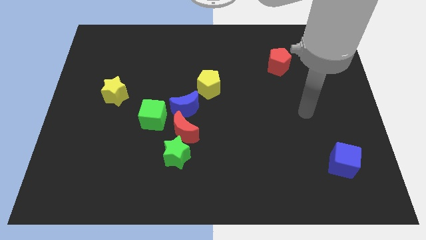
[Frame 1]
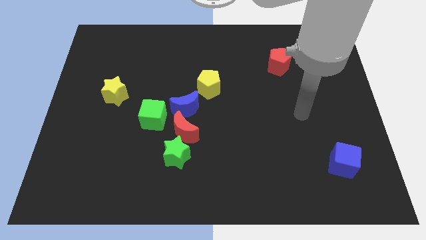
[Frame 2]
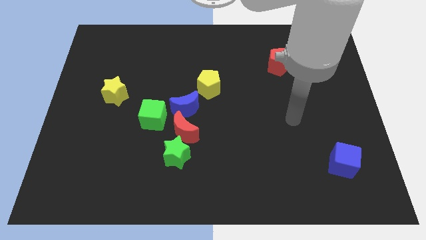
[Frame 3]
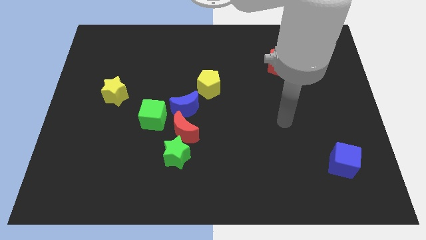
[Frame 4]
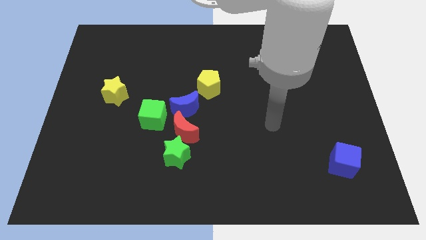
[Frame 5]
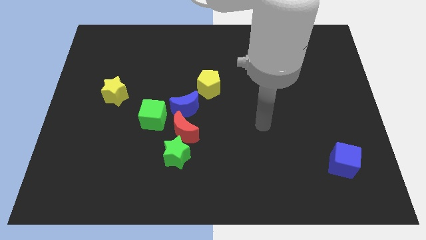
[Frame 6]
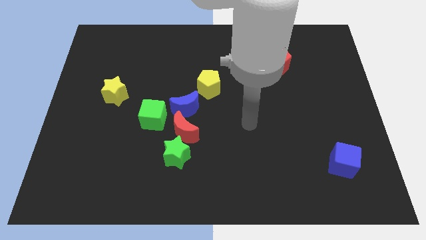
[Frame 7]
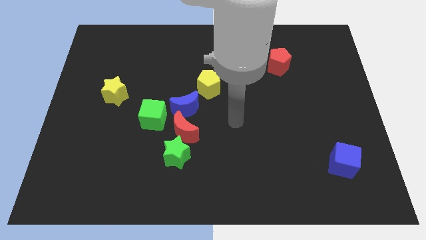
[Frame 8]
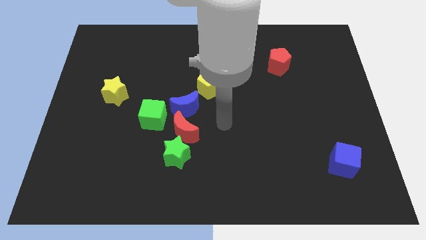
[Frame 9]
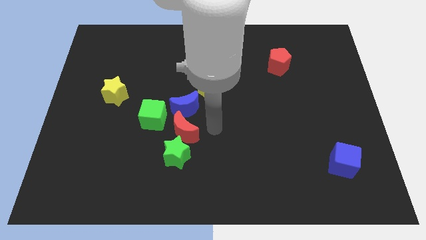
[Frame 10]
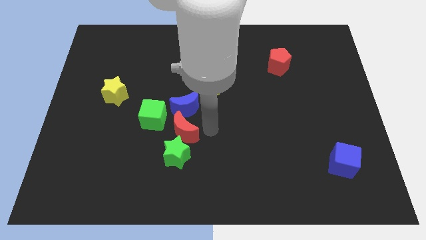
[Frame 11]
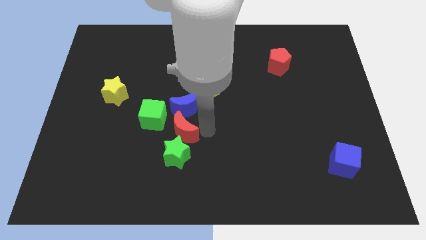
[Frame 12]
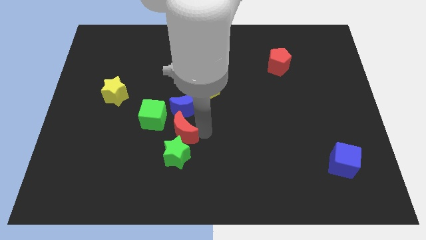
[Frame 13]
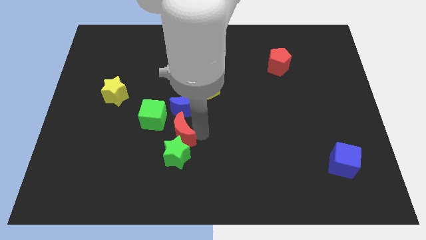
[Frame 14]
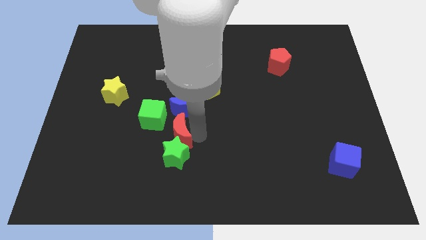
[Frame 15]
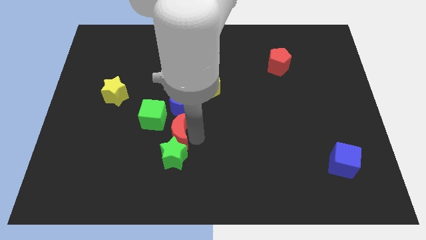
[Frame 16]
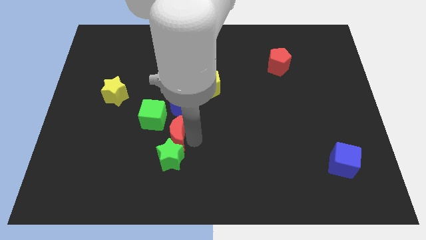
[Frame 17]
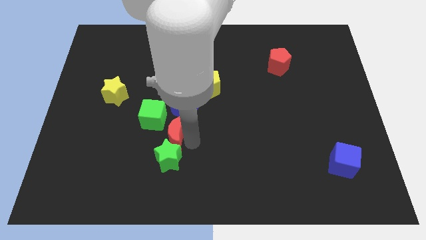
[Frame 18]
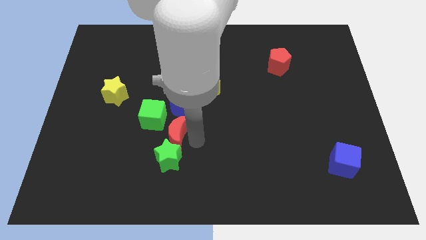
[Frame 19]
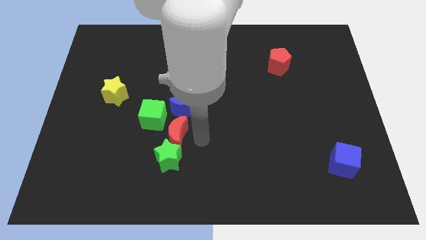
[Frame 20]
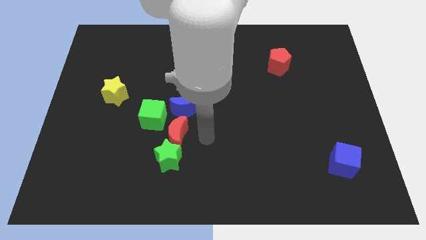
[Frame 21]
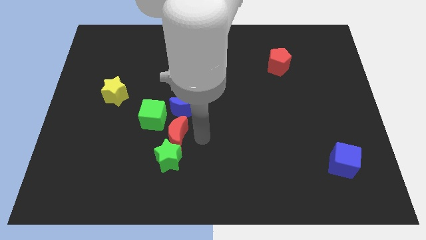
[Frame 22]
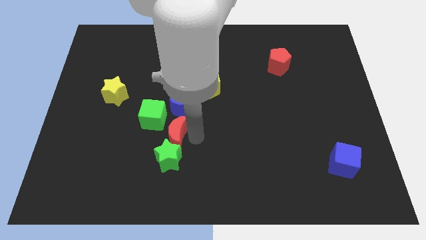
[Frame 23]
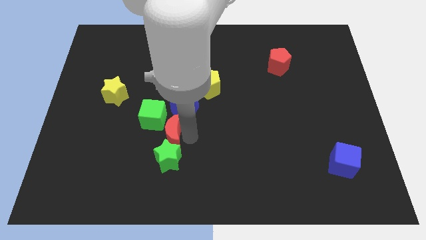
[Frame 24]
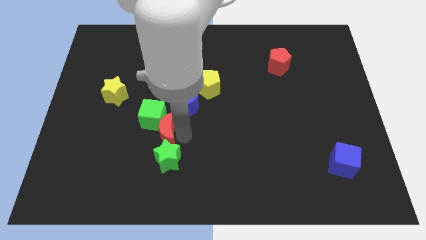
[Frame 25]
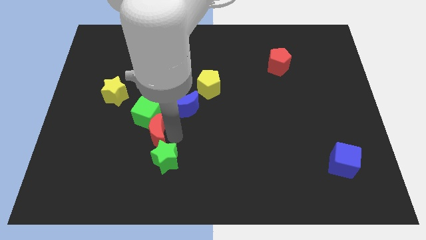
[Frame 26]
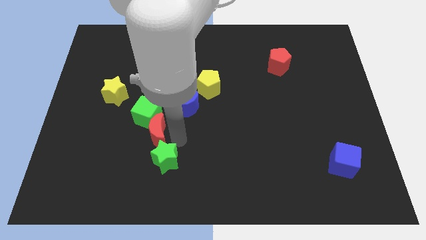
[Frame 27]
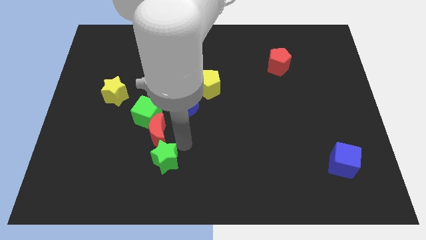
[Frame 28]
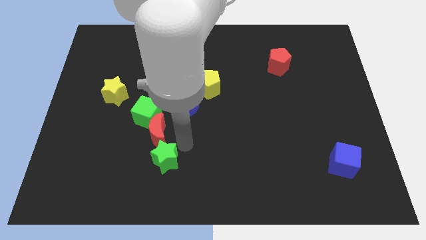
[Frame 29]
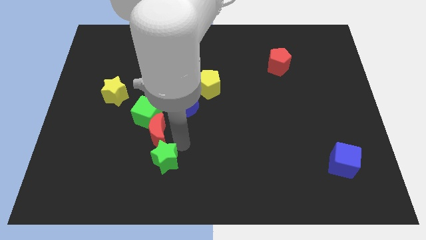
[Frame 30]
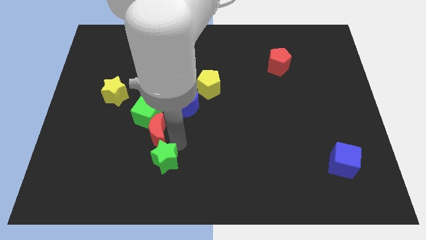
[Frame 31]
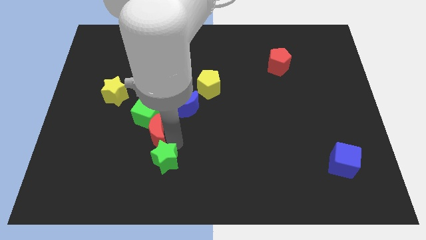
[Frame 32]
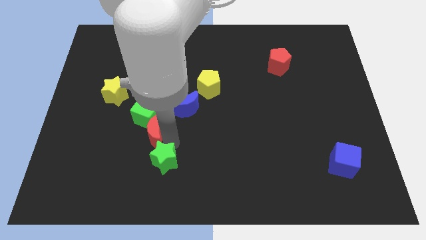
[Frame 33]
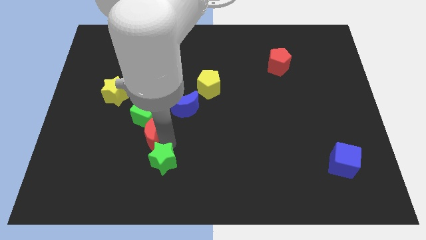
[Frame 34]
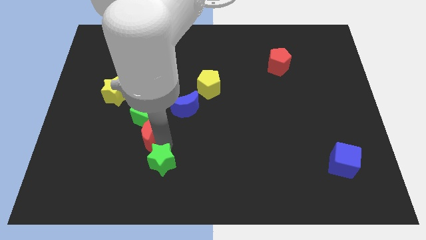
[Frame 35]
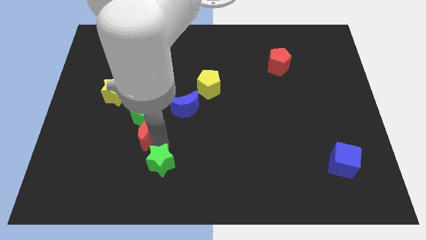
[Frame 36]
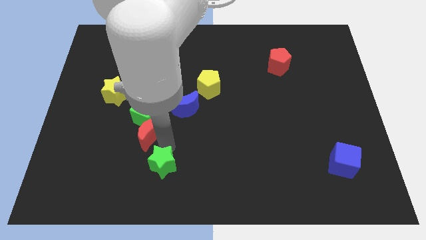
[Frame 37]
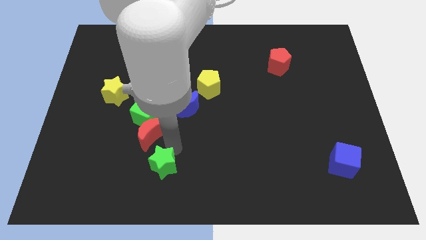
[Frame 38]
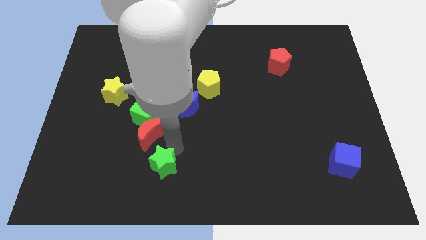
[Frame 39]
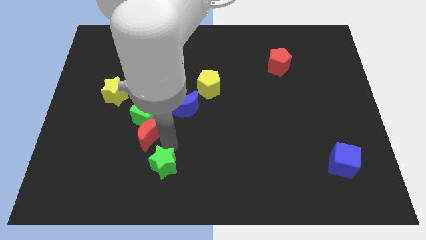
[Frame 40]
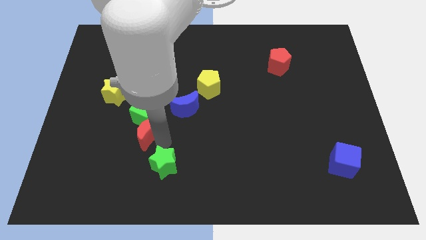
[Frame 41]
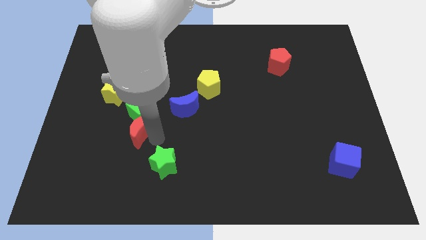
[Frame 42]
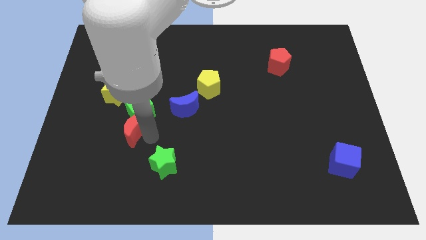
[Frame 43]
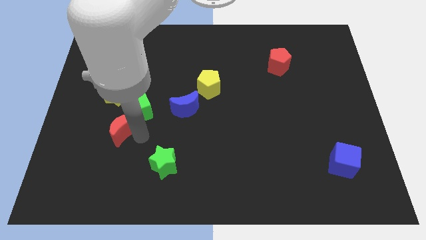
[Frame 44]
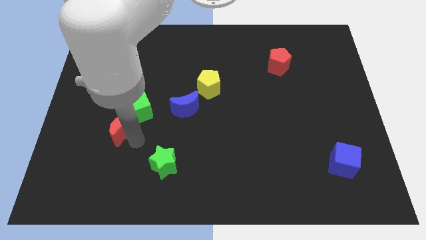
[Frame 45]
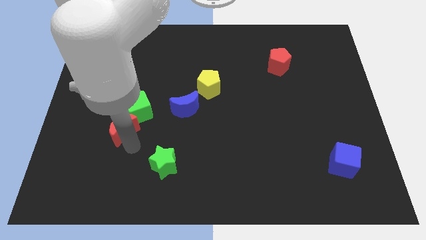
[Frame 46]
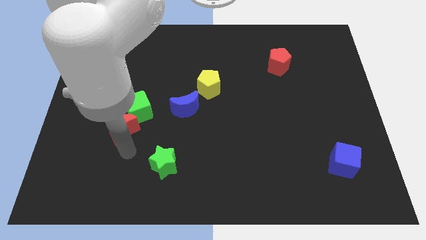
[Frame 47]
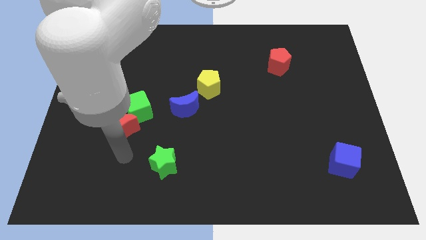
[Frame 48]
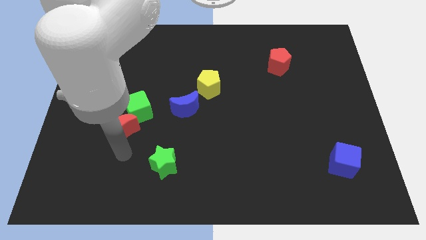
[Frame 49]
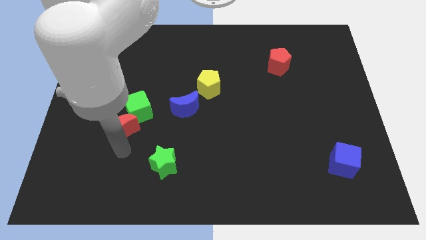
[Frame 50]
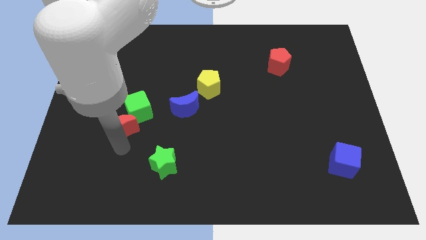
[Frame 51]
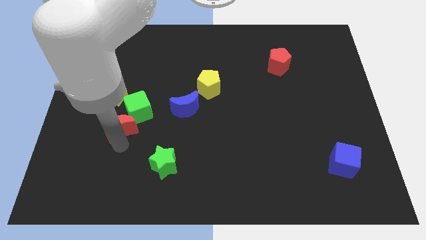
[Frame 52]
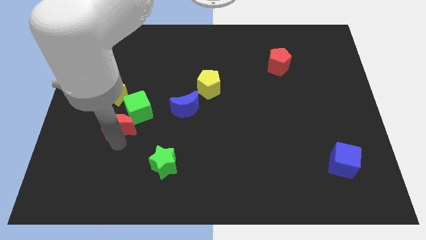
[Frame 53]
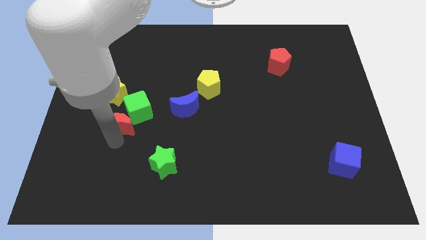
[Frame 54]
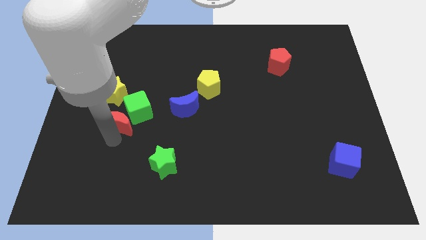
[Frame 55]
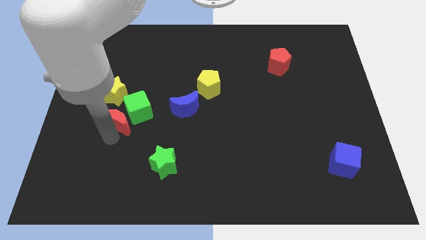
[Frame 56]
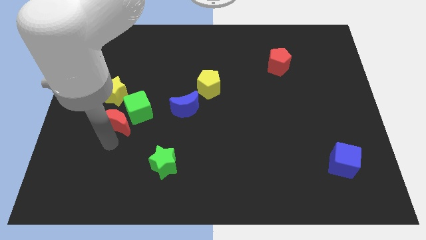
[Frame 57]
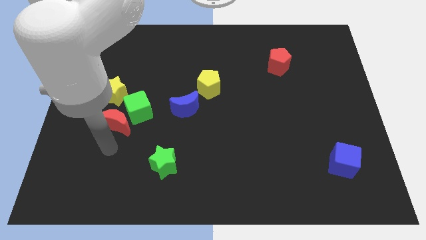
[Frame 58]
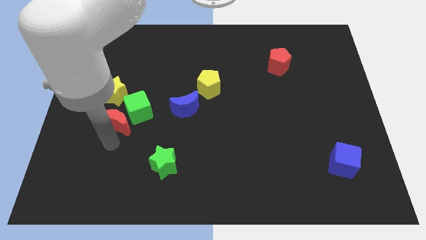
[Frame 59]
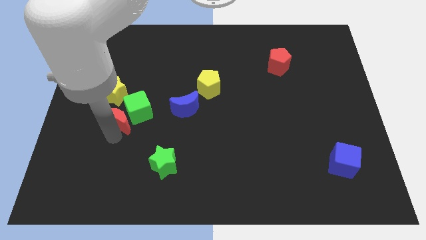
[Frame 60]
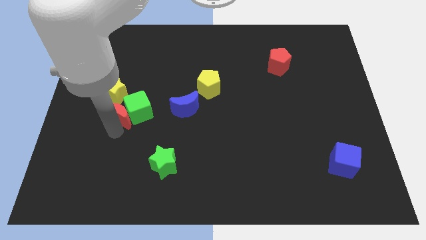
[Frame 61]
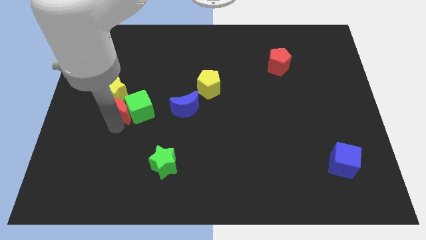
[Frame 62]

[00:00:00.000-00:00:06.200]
slide the red moon to the yellow star

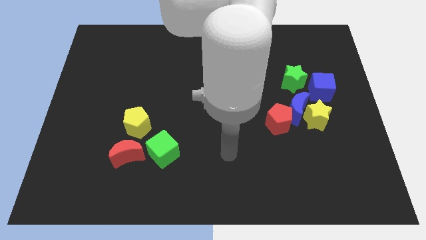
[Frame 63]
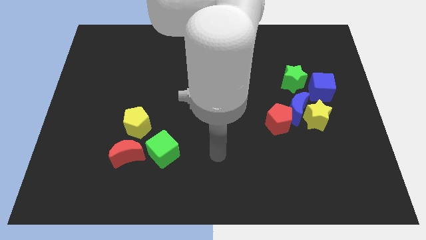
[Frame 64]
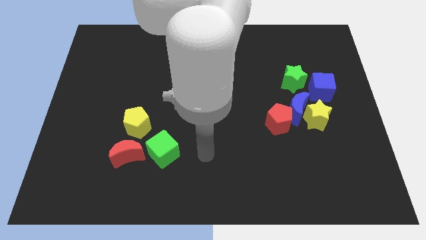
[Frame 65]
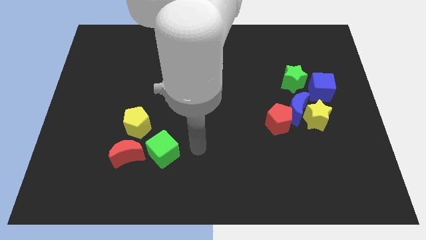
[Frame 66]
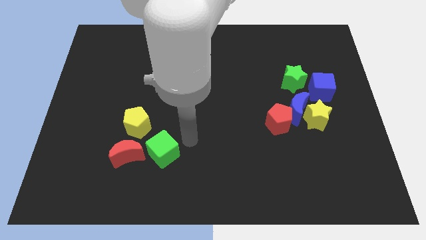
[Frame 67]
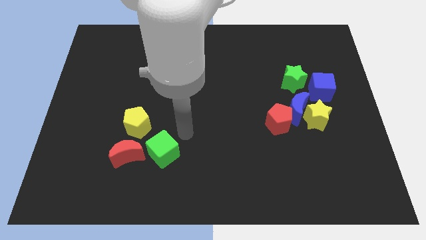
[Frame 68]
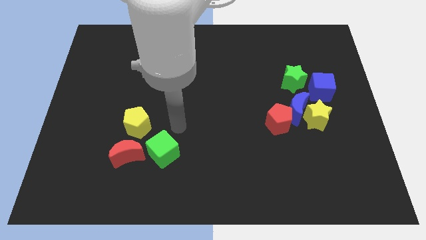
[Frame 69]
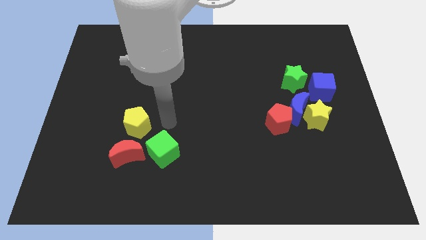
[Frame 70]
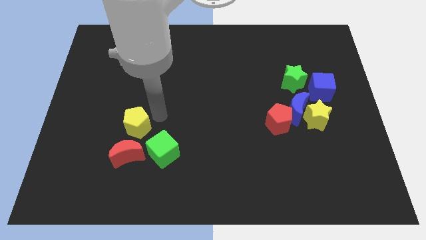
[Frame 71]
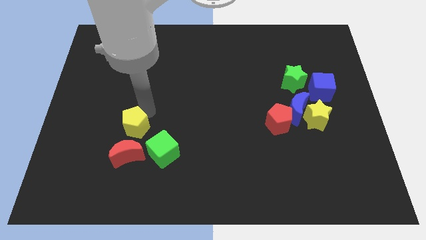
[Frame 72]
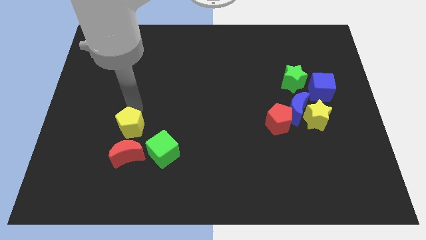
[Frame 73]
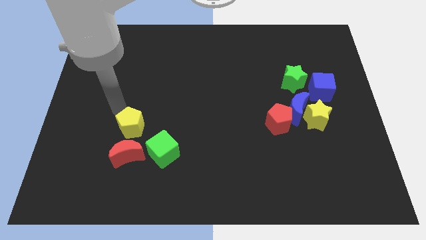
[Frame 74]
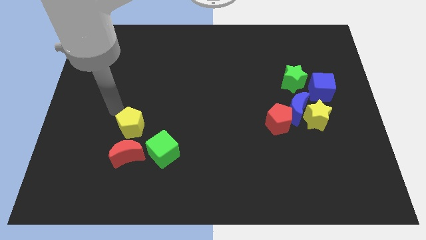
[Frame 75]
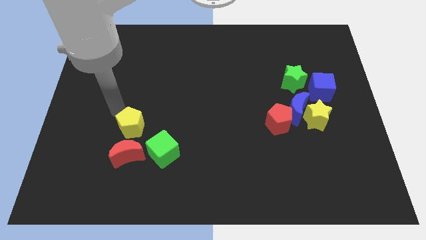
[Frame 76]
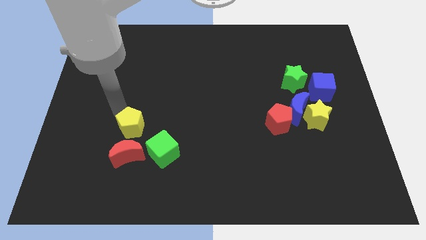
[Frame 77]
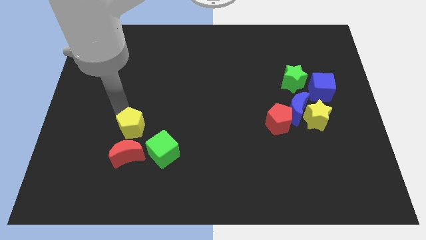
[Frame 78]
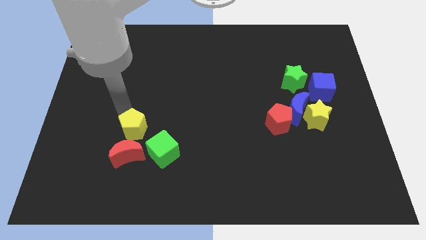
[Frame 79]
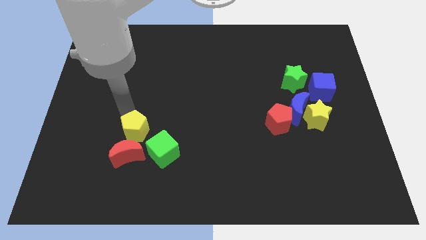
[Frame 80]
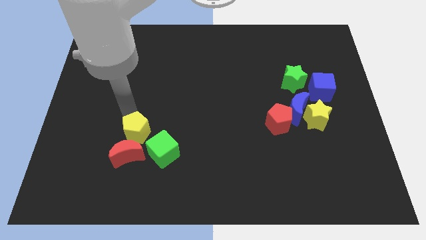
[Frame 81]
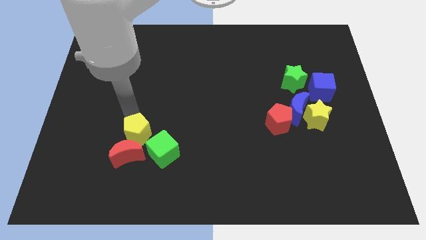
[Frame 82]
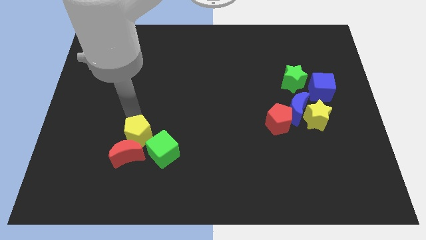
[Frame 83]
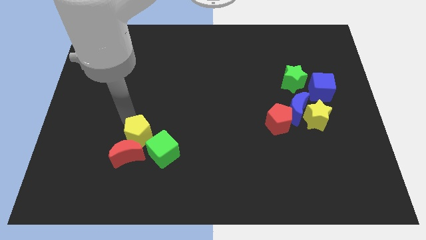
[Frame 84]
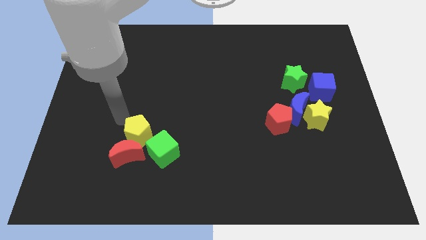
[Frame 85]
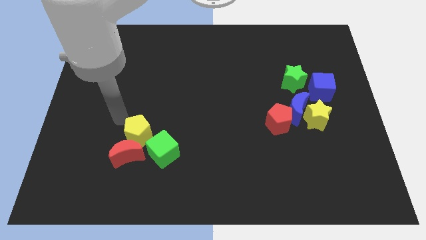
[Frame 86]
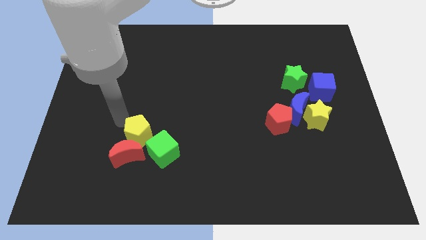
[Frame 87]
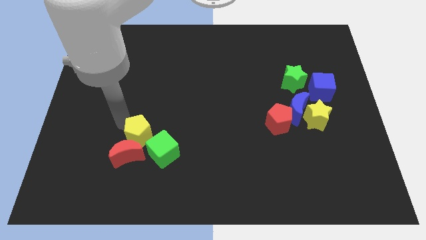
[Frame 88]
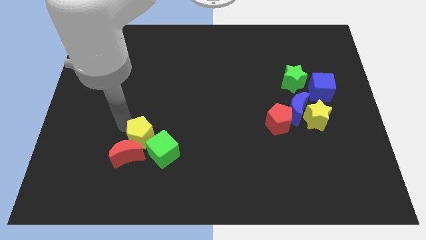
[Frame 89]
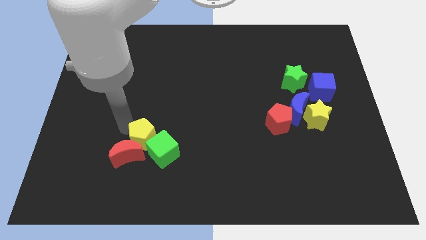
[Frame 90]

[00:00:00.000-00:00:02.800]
move the yellow pentagon to the green cube
